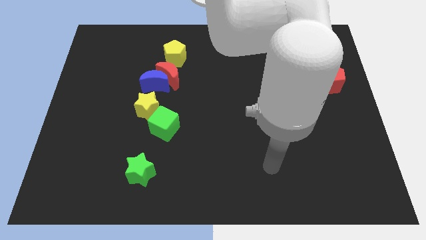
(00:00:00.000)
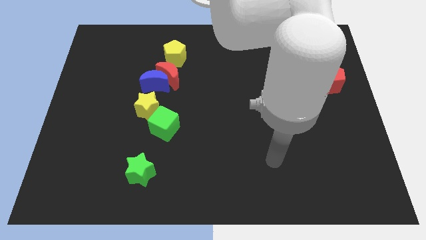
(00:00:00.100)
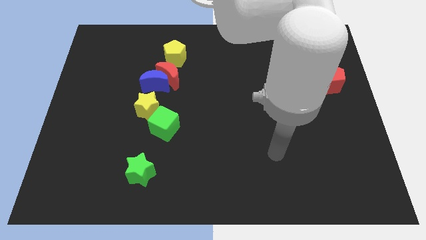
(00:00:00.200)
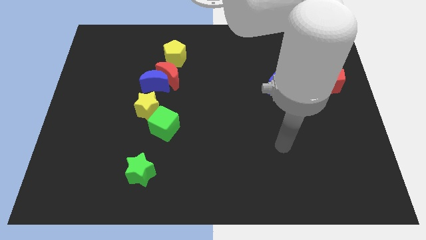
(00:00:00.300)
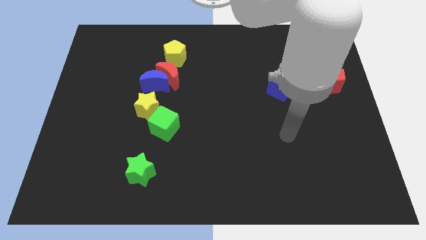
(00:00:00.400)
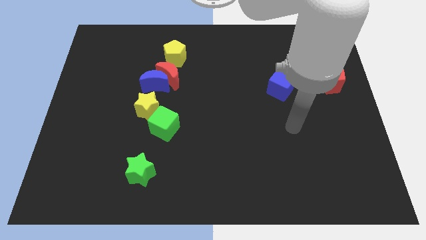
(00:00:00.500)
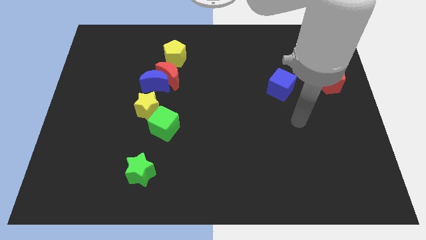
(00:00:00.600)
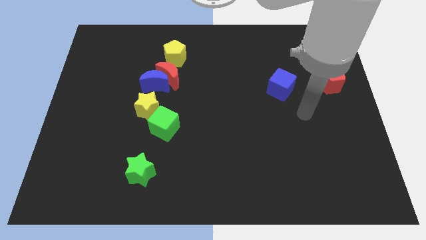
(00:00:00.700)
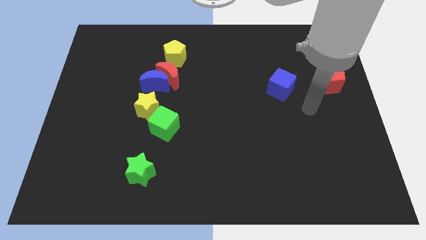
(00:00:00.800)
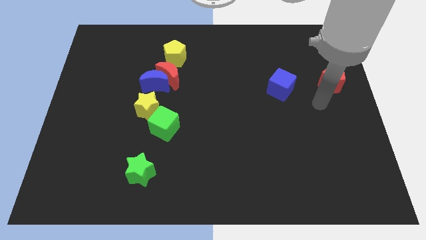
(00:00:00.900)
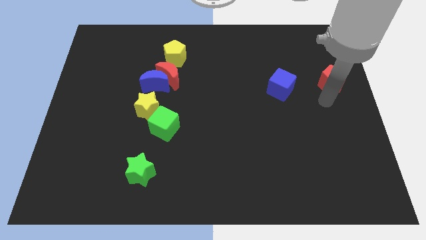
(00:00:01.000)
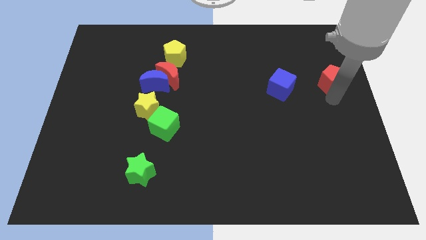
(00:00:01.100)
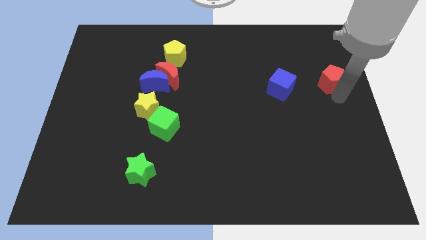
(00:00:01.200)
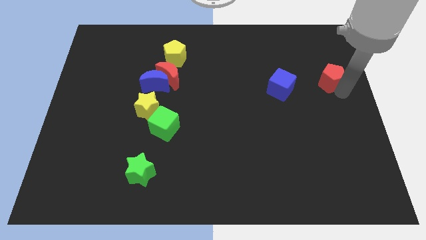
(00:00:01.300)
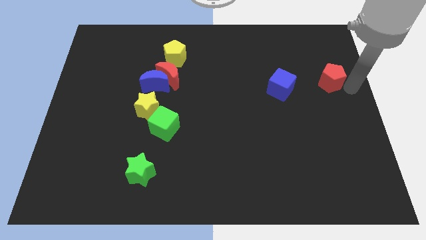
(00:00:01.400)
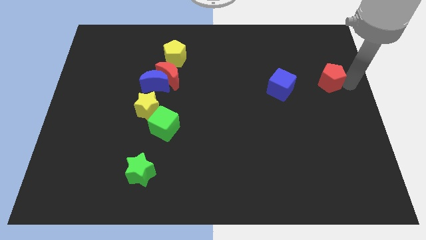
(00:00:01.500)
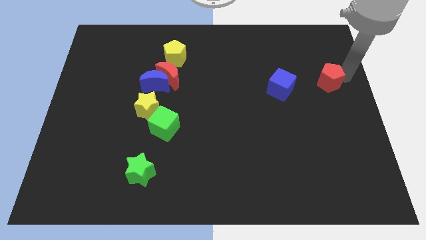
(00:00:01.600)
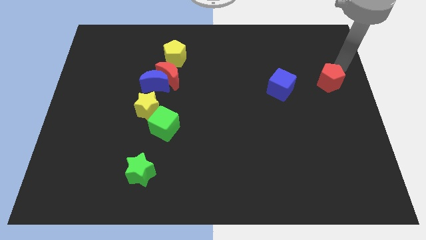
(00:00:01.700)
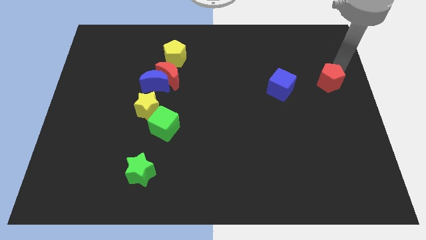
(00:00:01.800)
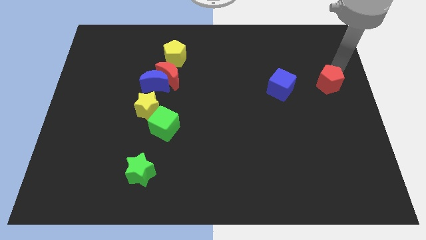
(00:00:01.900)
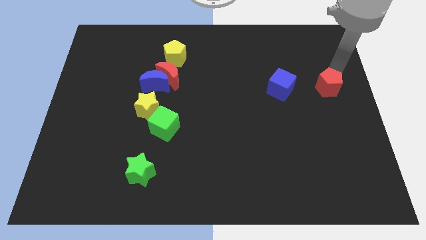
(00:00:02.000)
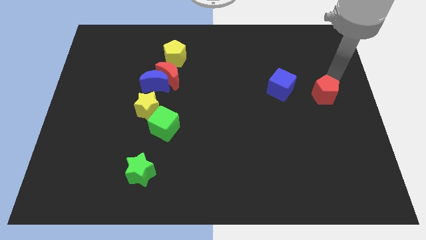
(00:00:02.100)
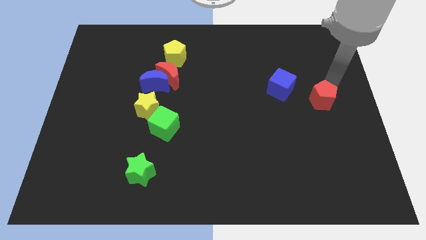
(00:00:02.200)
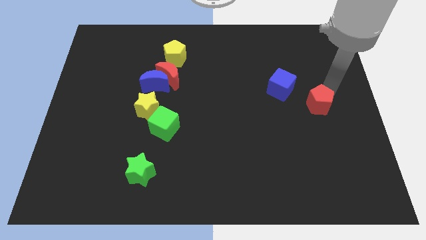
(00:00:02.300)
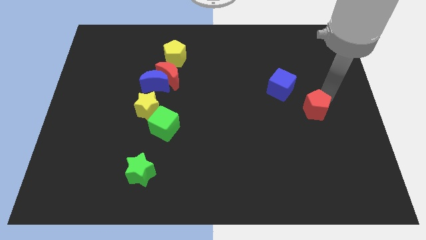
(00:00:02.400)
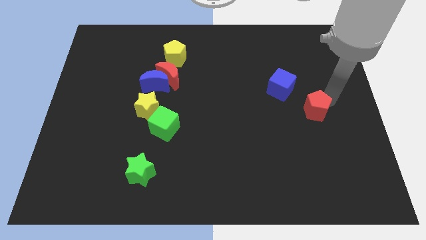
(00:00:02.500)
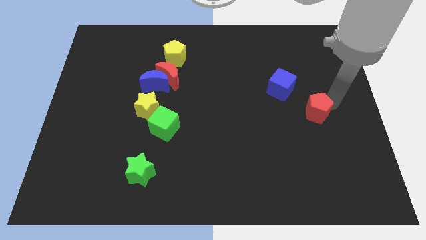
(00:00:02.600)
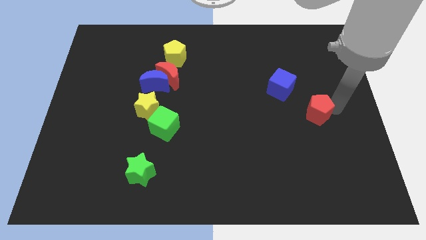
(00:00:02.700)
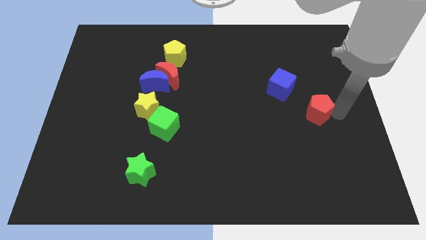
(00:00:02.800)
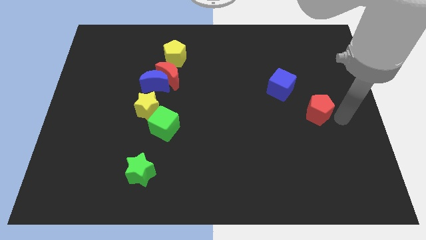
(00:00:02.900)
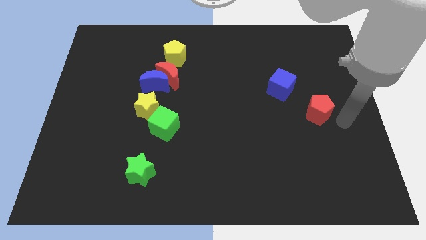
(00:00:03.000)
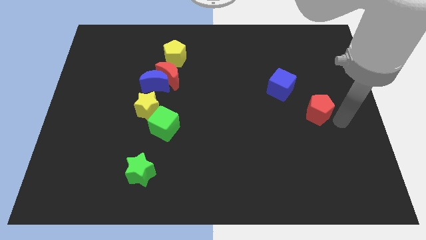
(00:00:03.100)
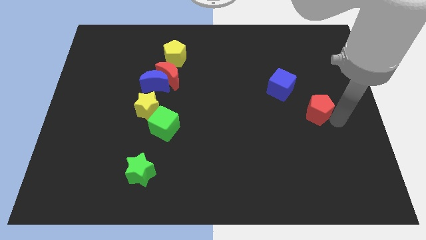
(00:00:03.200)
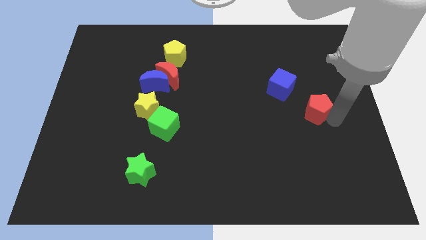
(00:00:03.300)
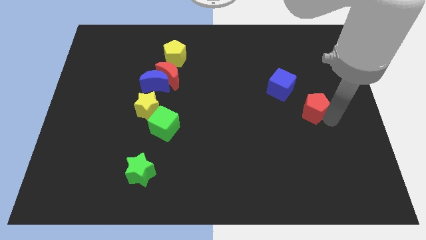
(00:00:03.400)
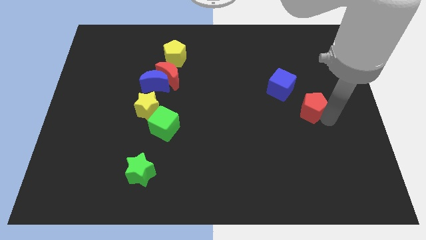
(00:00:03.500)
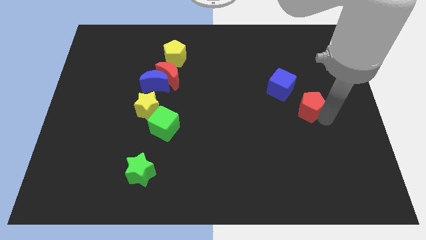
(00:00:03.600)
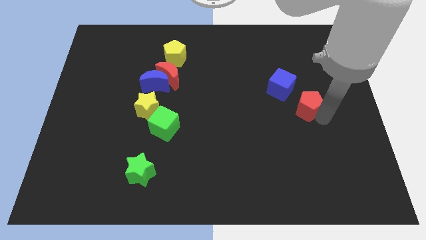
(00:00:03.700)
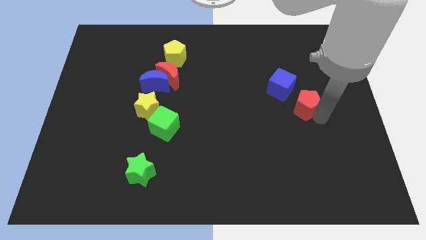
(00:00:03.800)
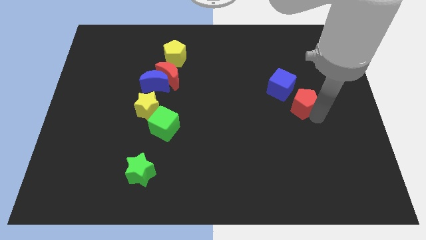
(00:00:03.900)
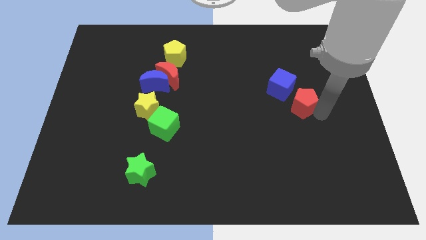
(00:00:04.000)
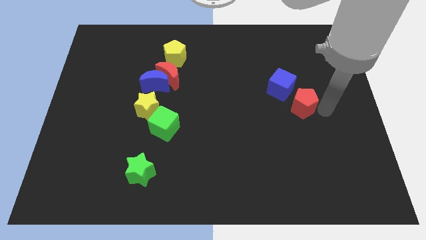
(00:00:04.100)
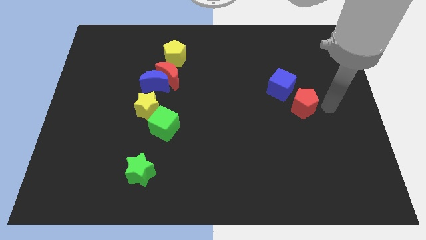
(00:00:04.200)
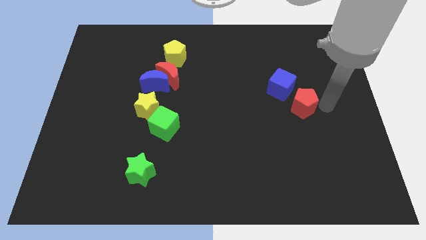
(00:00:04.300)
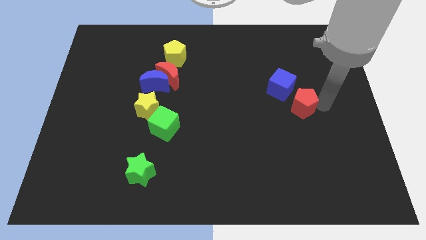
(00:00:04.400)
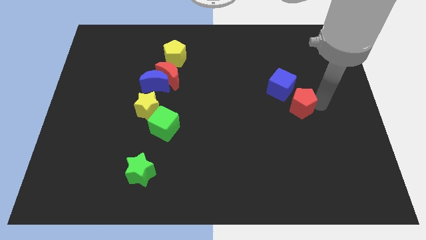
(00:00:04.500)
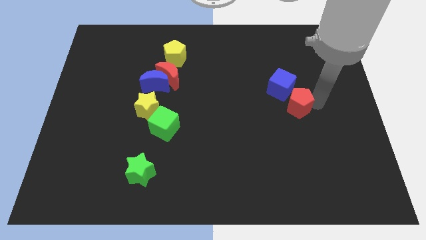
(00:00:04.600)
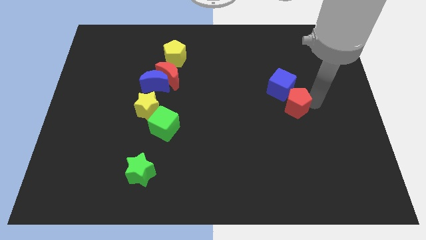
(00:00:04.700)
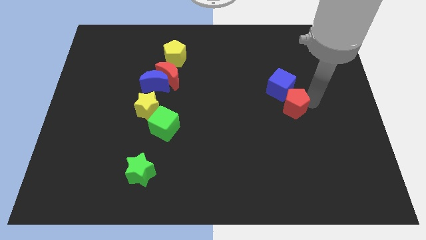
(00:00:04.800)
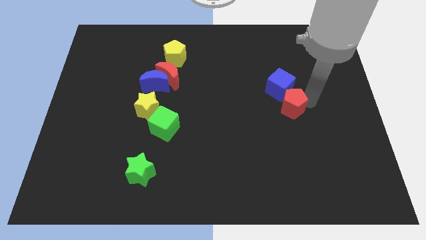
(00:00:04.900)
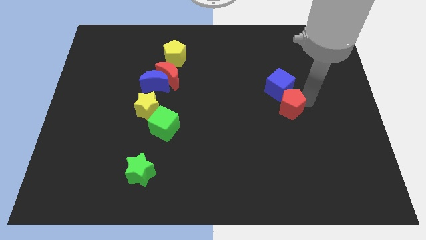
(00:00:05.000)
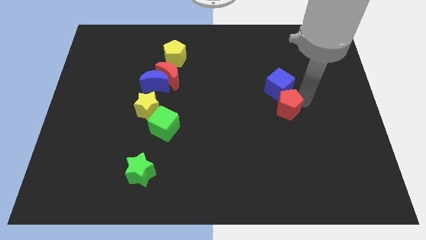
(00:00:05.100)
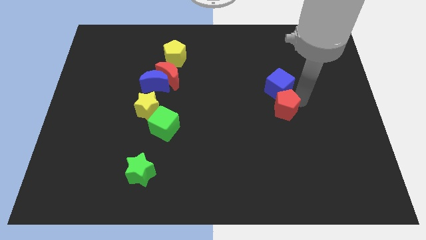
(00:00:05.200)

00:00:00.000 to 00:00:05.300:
put the red pentagon to the bottom left side of the blue cube

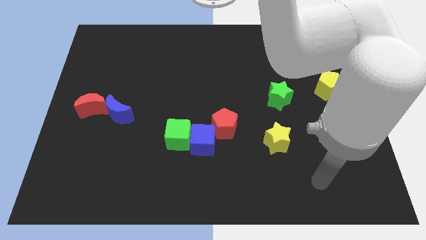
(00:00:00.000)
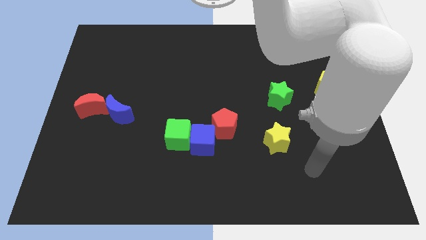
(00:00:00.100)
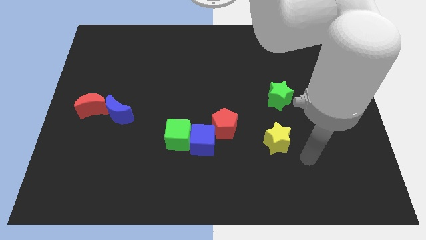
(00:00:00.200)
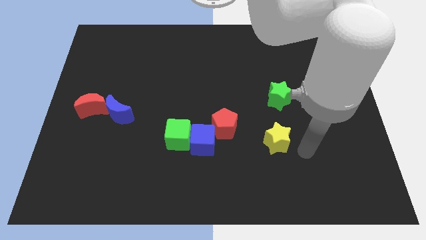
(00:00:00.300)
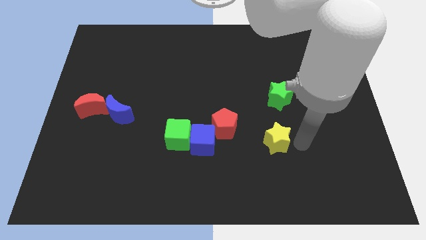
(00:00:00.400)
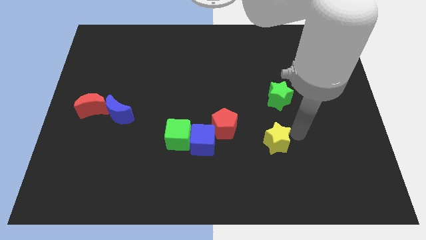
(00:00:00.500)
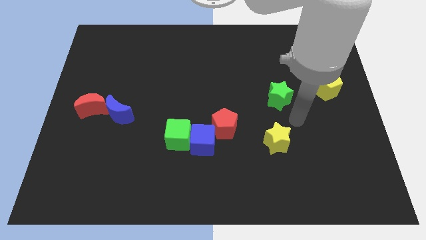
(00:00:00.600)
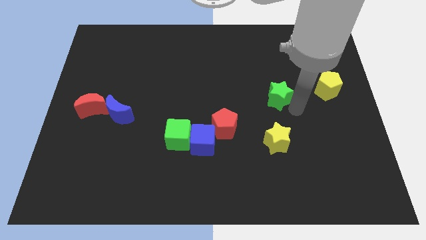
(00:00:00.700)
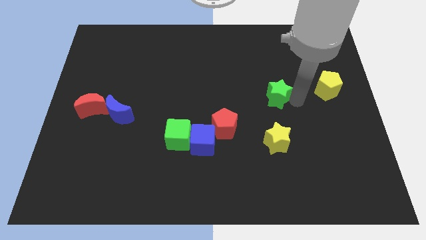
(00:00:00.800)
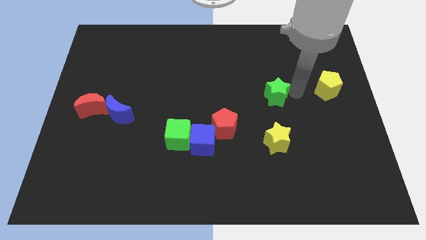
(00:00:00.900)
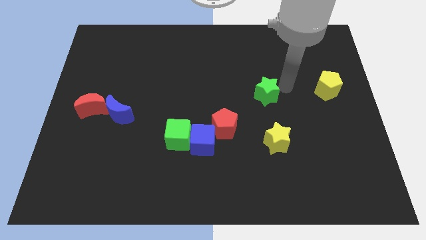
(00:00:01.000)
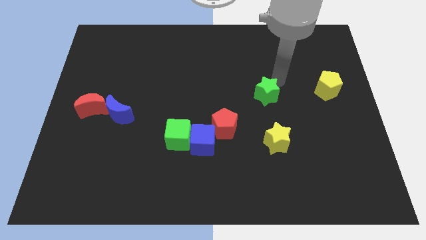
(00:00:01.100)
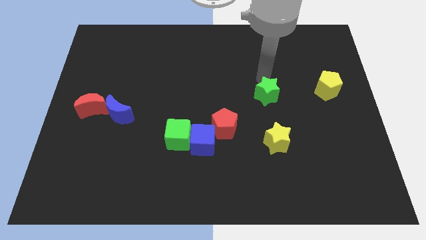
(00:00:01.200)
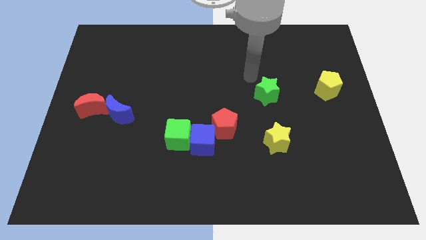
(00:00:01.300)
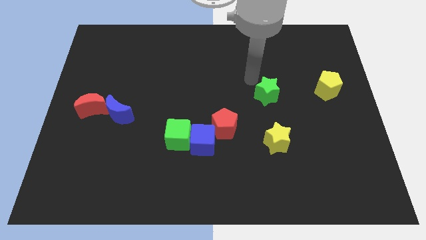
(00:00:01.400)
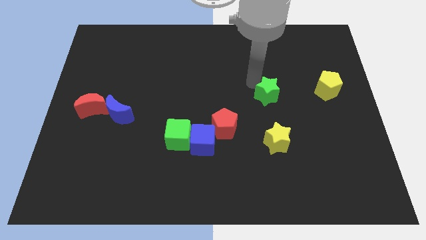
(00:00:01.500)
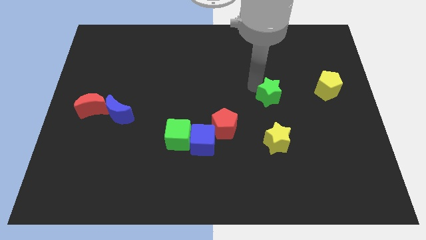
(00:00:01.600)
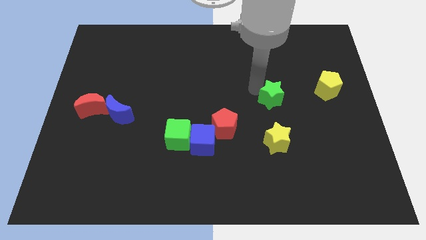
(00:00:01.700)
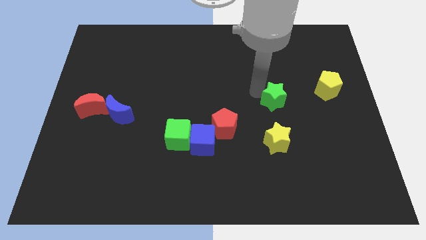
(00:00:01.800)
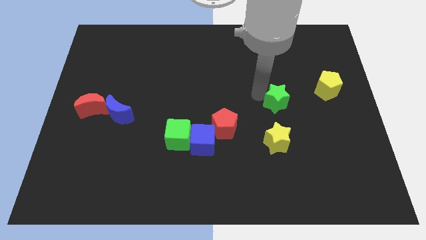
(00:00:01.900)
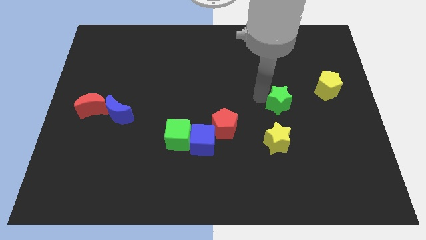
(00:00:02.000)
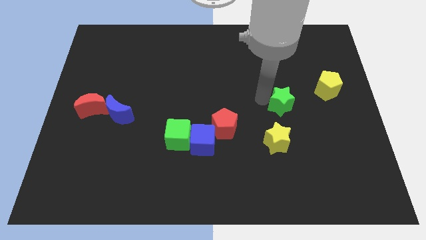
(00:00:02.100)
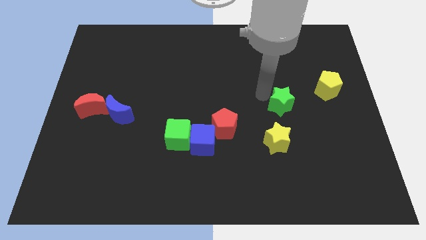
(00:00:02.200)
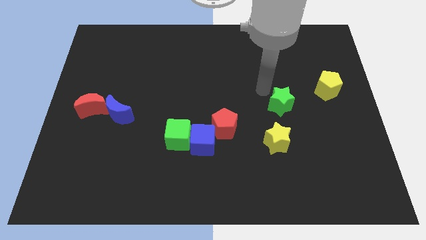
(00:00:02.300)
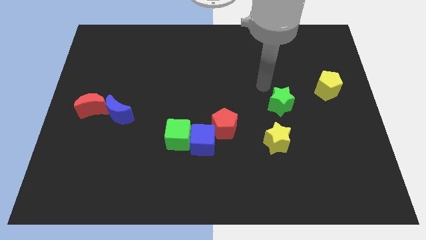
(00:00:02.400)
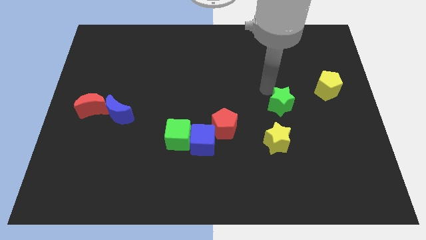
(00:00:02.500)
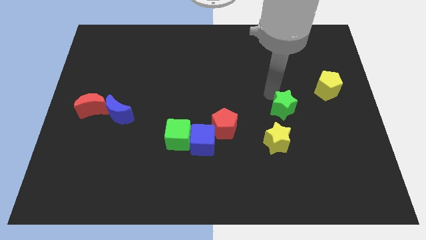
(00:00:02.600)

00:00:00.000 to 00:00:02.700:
push the green star diagonally up and to the right of the yellow star
